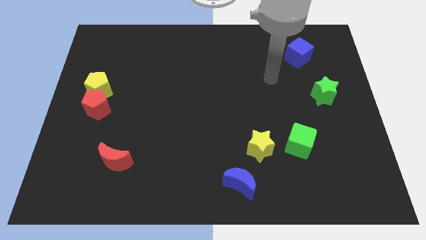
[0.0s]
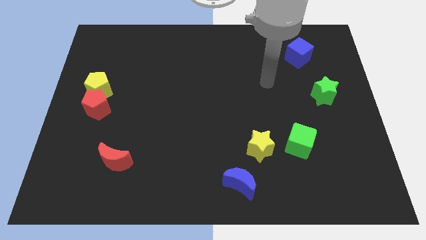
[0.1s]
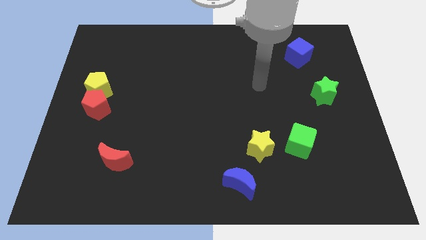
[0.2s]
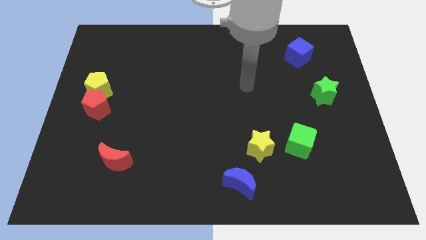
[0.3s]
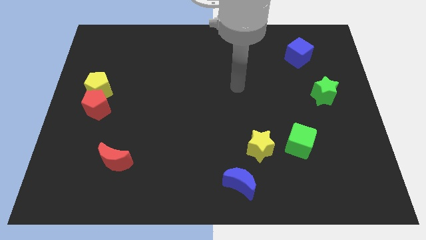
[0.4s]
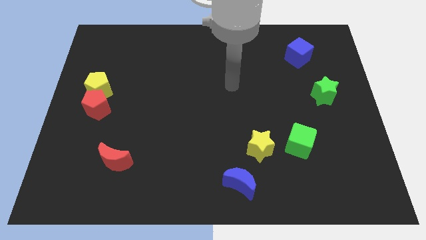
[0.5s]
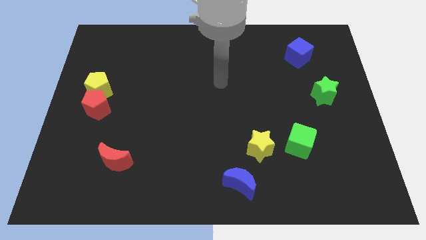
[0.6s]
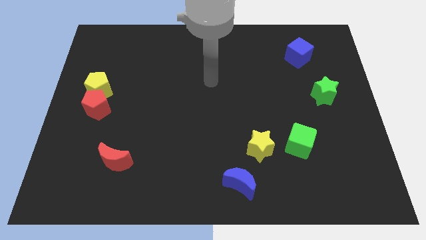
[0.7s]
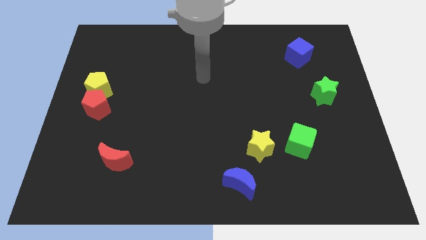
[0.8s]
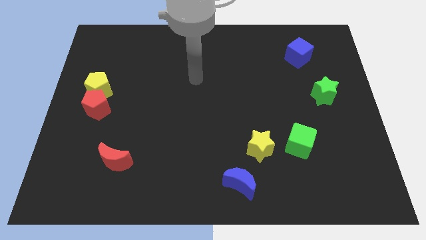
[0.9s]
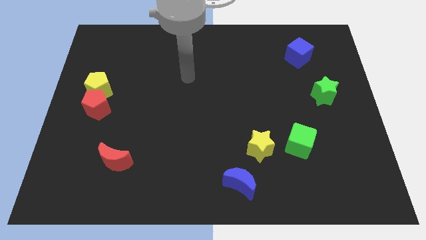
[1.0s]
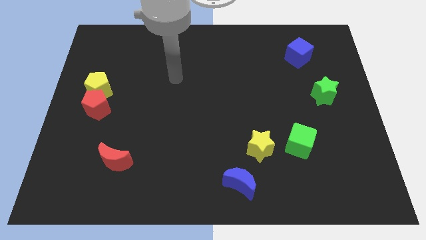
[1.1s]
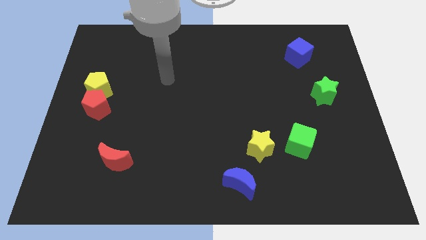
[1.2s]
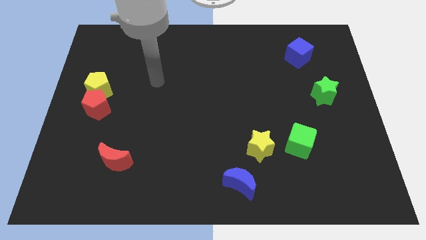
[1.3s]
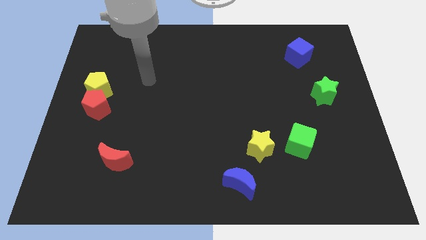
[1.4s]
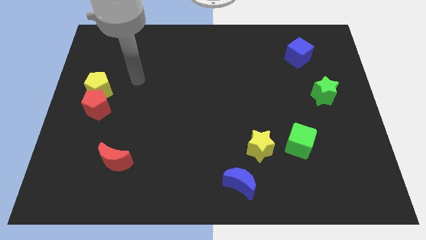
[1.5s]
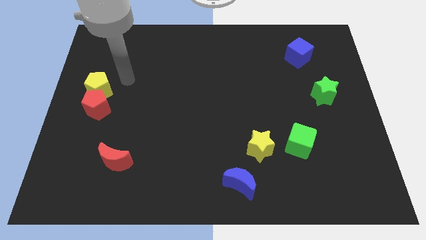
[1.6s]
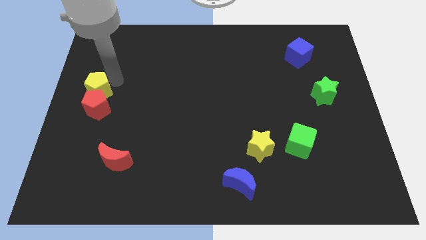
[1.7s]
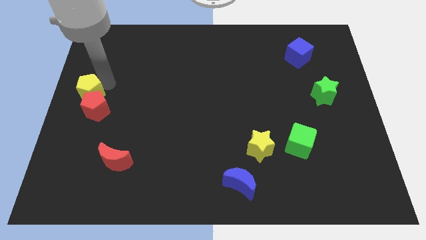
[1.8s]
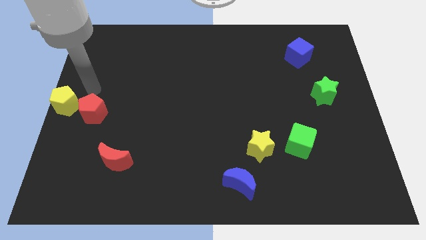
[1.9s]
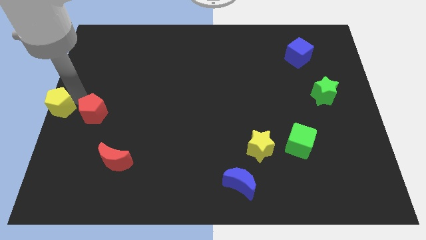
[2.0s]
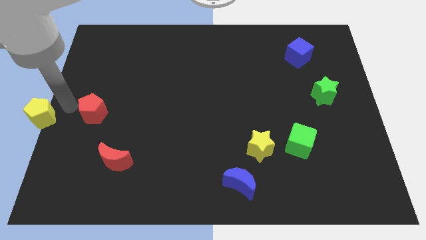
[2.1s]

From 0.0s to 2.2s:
separate the red pentagon from the yellow pentagon

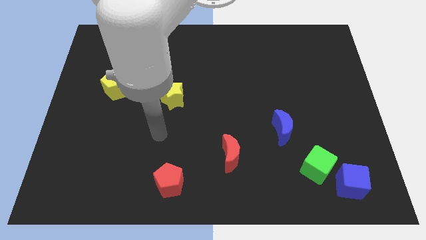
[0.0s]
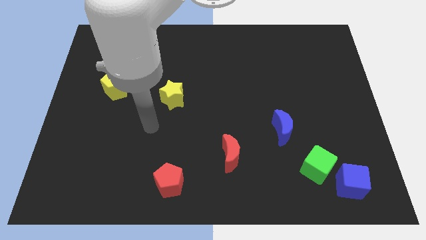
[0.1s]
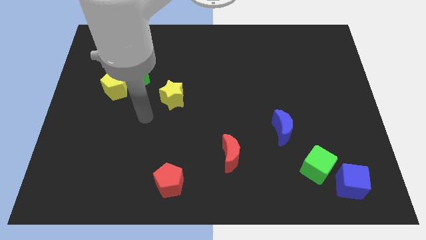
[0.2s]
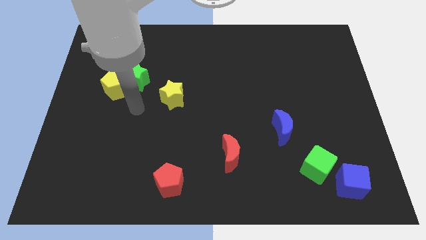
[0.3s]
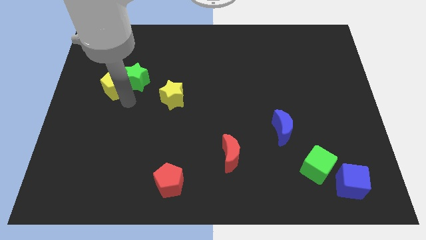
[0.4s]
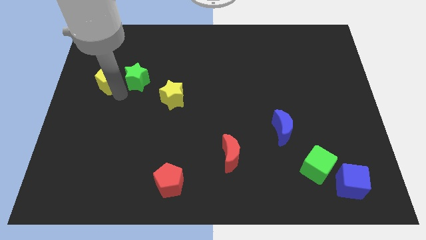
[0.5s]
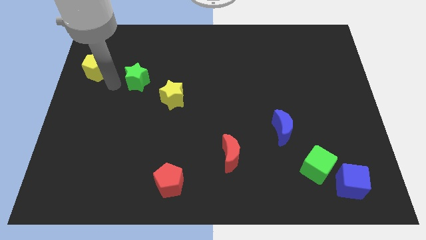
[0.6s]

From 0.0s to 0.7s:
move the green star away from the yellow pentagon

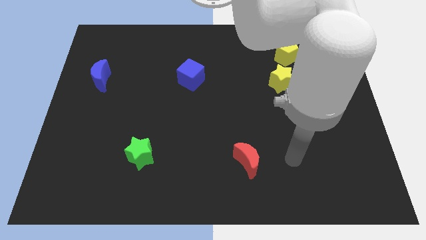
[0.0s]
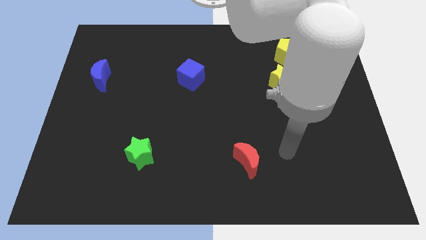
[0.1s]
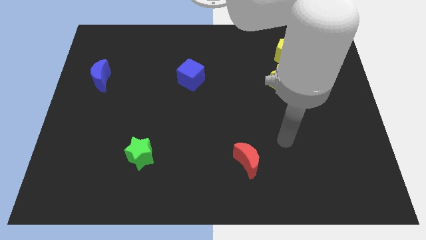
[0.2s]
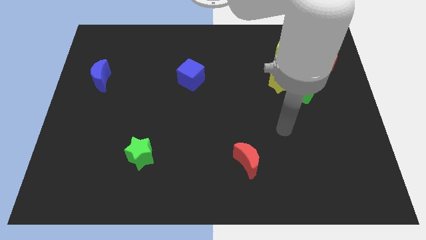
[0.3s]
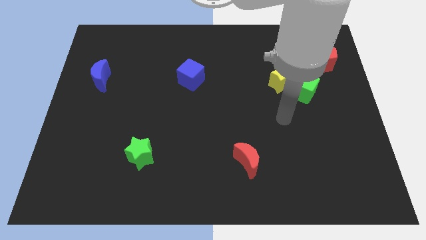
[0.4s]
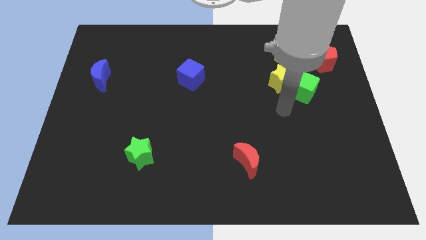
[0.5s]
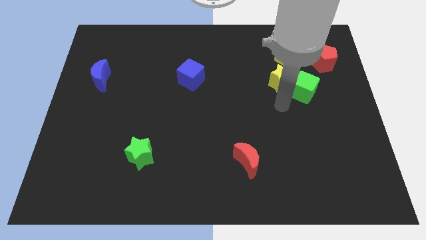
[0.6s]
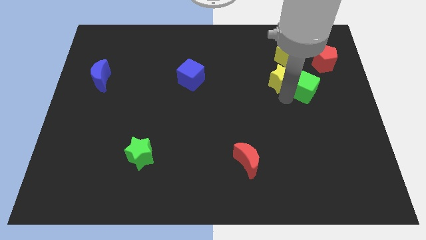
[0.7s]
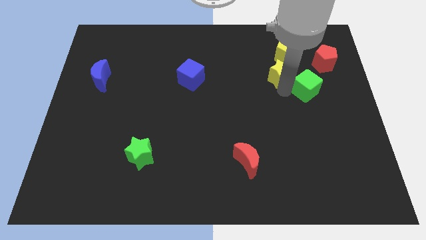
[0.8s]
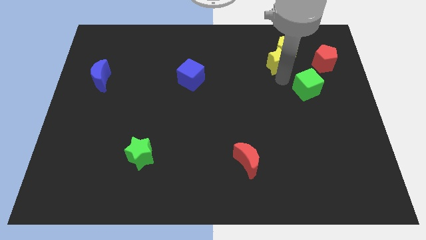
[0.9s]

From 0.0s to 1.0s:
pull the green cube apart from the yellow star

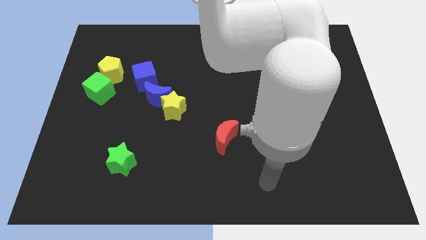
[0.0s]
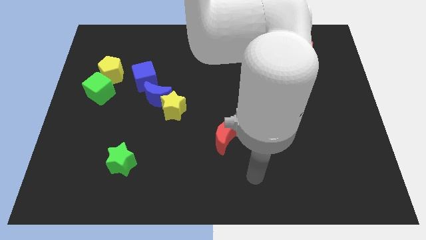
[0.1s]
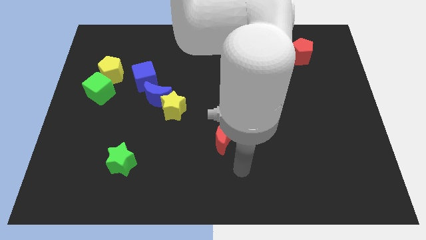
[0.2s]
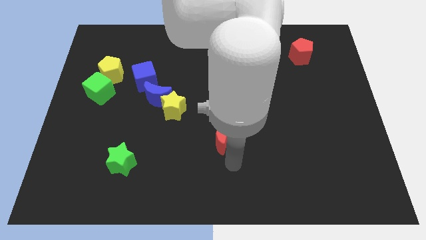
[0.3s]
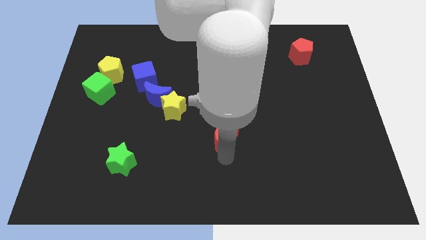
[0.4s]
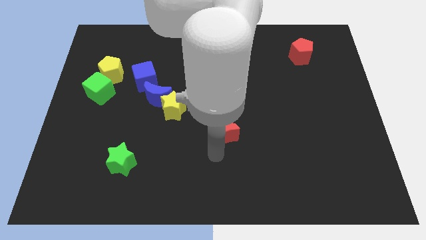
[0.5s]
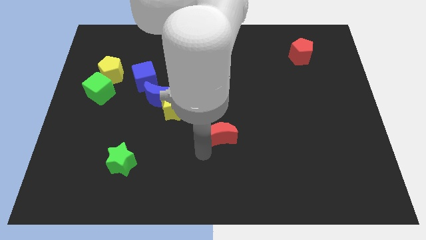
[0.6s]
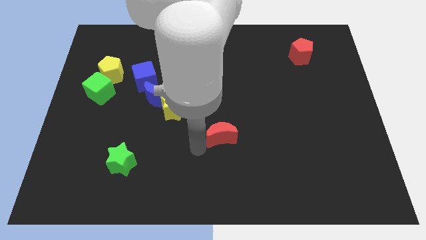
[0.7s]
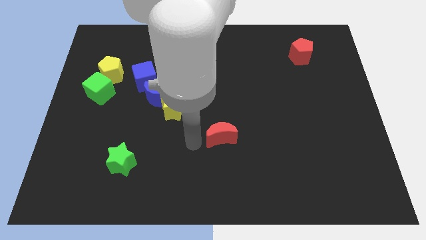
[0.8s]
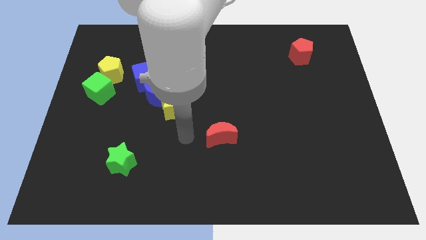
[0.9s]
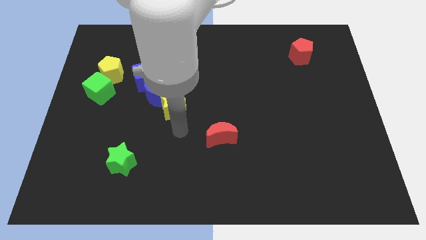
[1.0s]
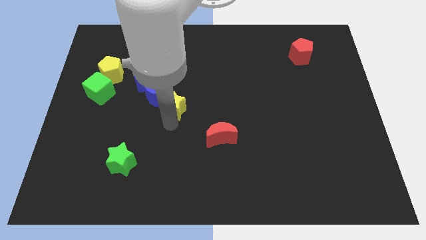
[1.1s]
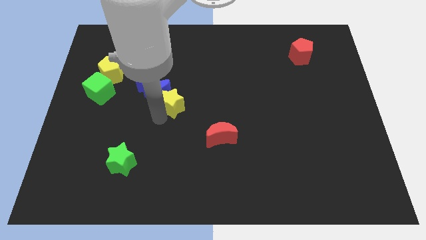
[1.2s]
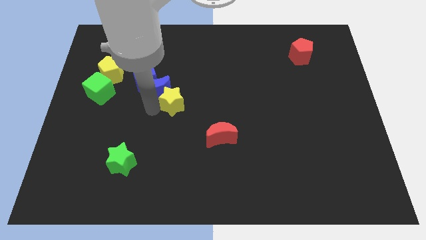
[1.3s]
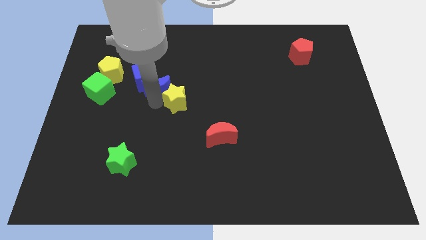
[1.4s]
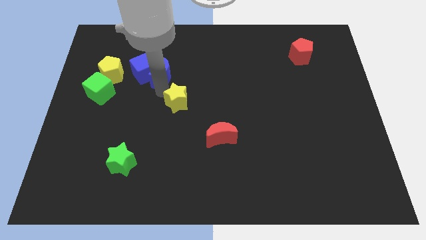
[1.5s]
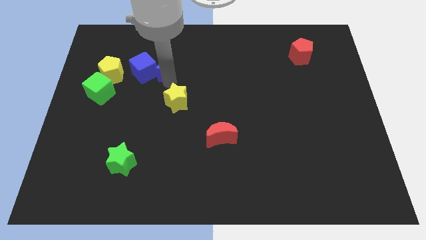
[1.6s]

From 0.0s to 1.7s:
separate the yellow star from the blue moon

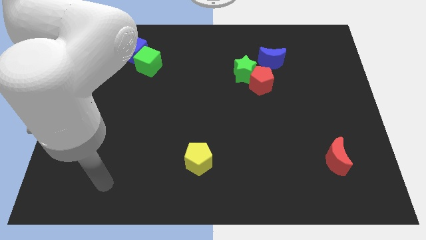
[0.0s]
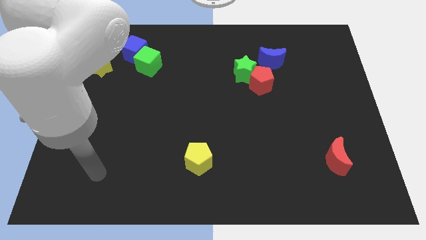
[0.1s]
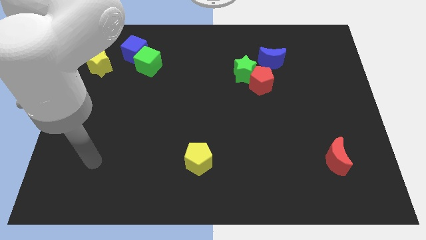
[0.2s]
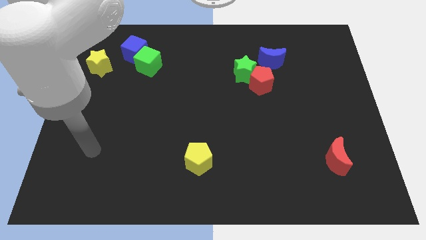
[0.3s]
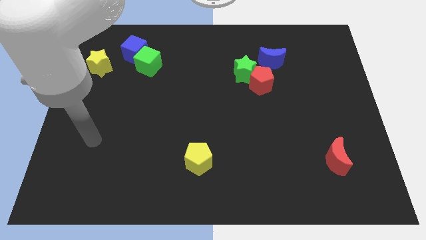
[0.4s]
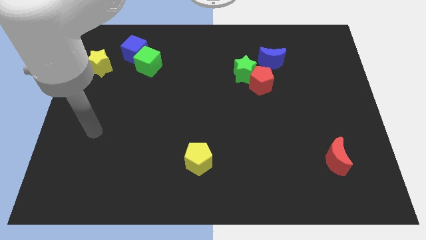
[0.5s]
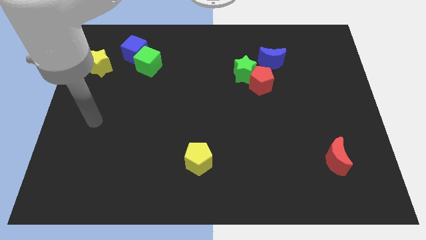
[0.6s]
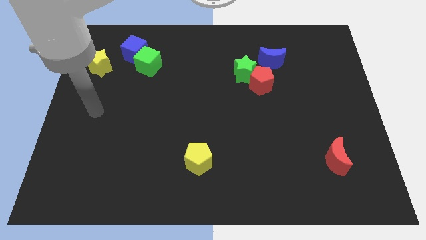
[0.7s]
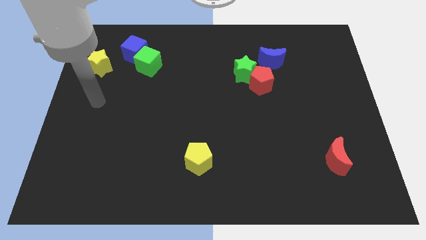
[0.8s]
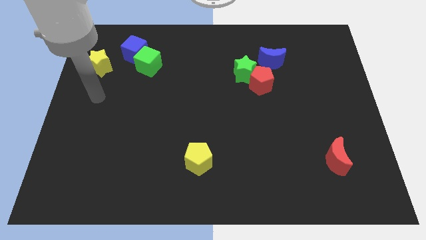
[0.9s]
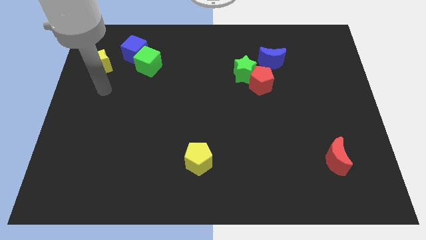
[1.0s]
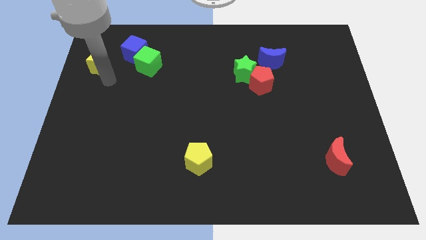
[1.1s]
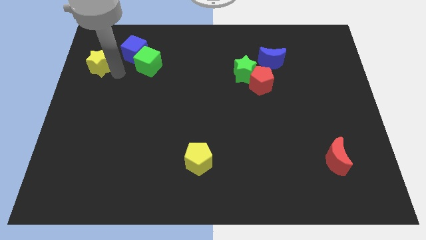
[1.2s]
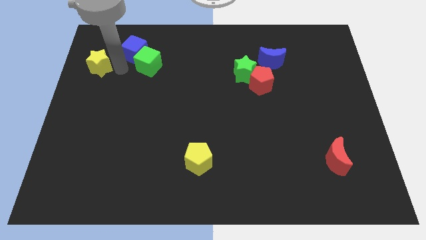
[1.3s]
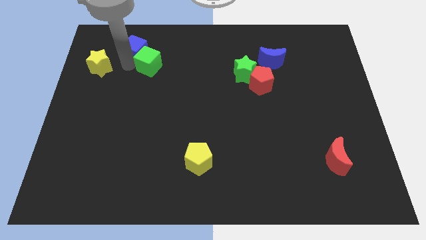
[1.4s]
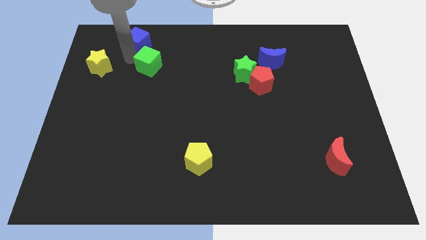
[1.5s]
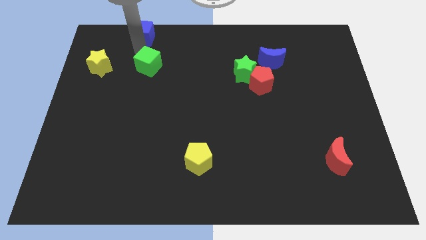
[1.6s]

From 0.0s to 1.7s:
pull the green cube apart from the blue cube

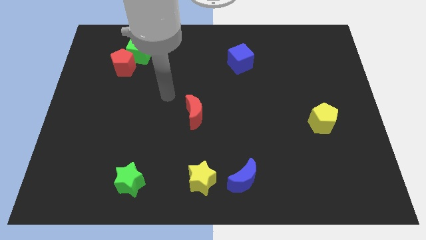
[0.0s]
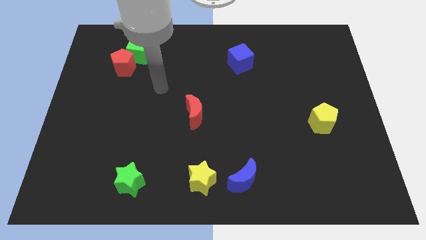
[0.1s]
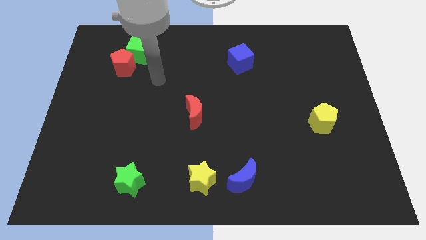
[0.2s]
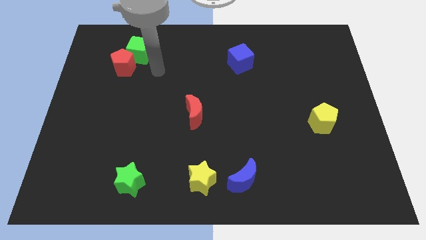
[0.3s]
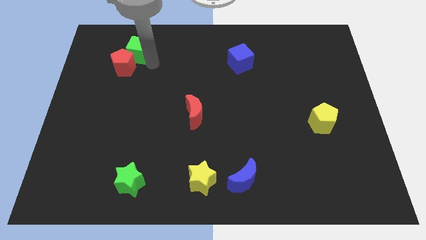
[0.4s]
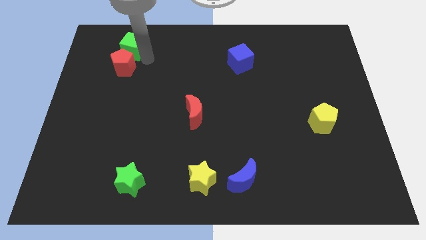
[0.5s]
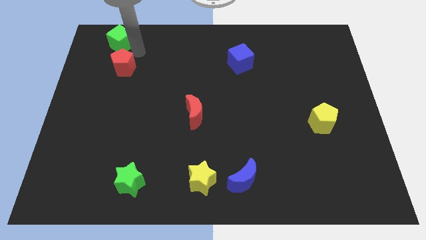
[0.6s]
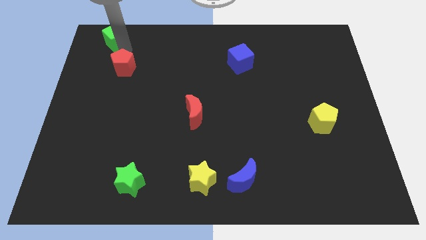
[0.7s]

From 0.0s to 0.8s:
move the red pentagon away from the green cube

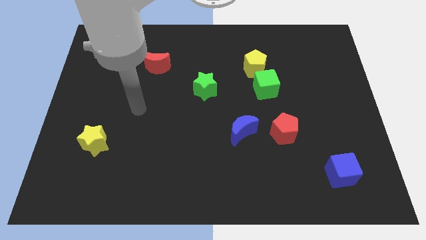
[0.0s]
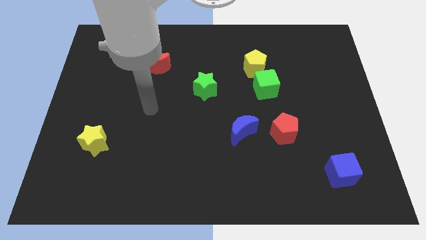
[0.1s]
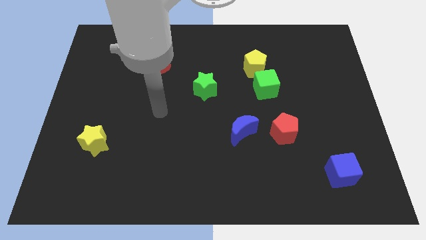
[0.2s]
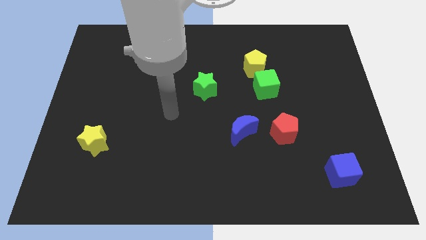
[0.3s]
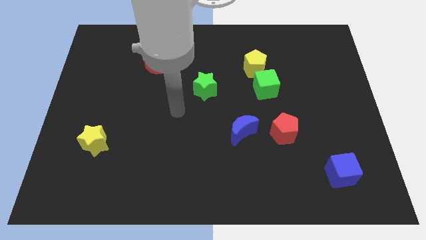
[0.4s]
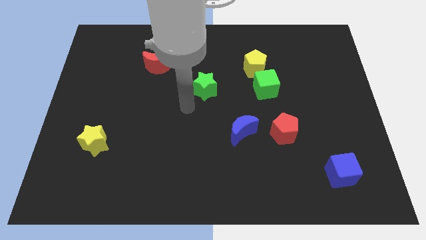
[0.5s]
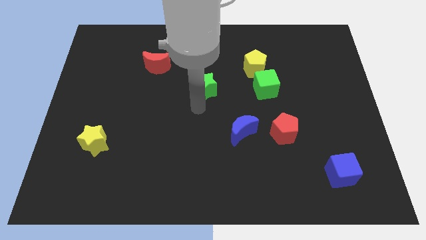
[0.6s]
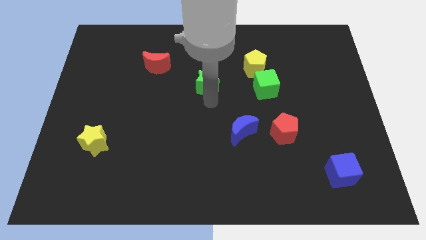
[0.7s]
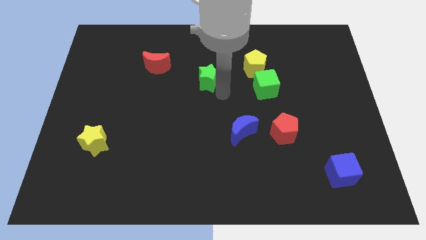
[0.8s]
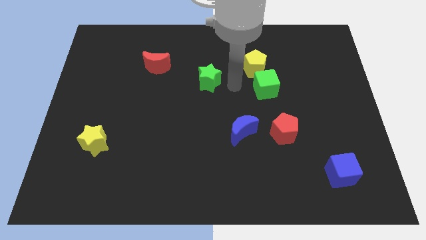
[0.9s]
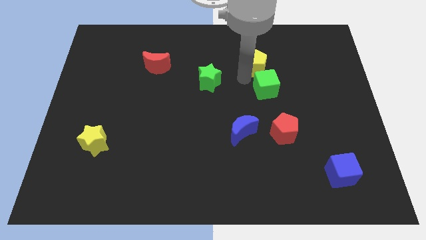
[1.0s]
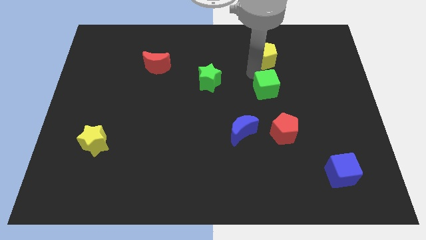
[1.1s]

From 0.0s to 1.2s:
pull the green cube apart from the yellow pentagon
